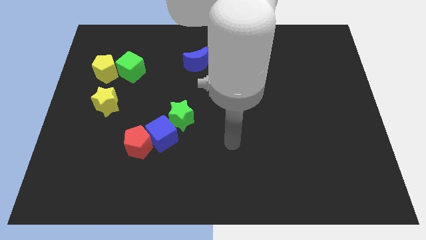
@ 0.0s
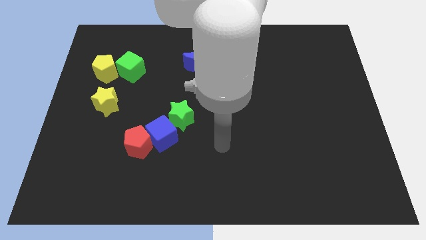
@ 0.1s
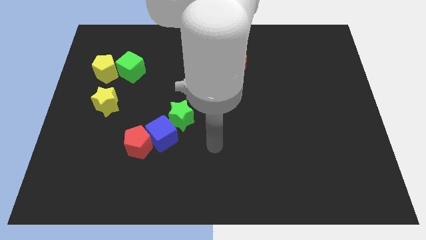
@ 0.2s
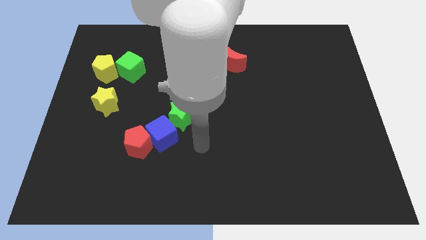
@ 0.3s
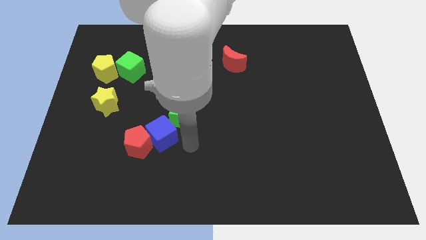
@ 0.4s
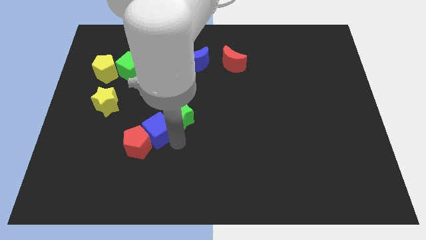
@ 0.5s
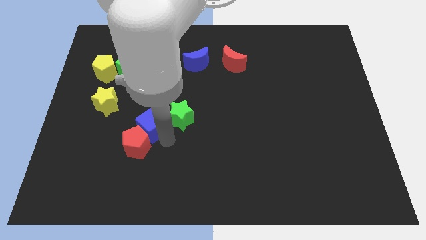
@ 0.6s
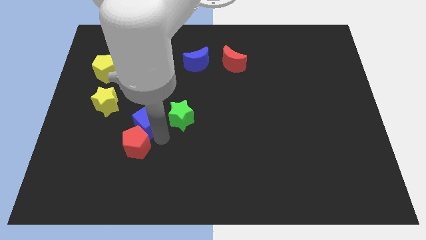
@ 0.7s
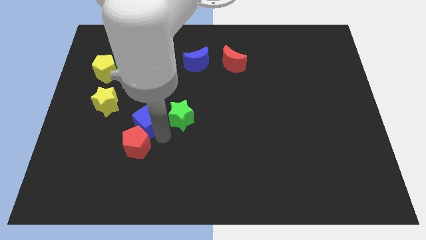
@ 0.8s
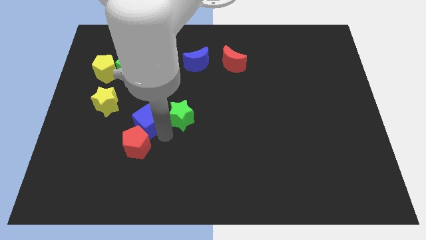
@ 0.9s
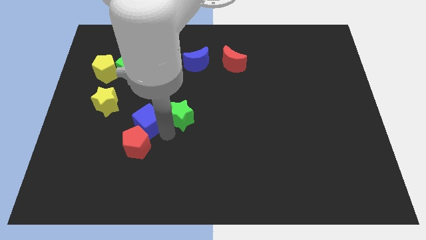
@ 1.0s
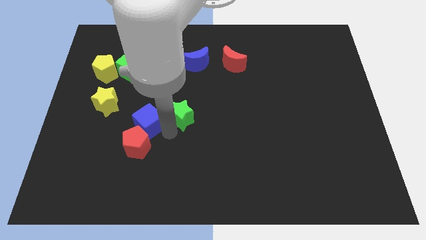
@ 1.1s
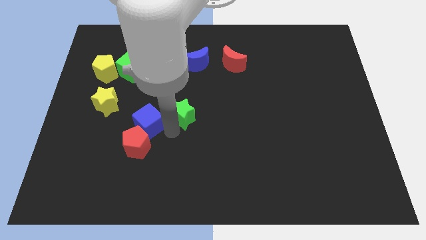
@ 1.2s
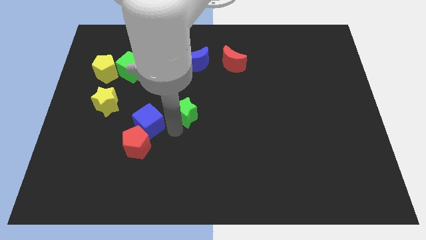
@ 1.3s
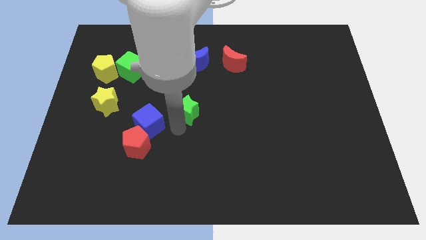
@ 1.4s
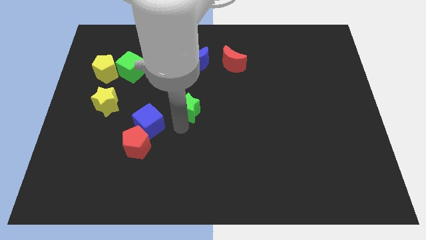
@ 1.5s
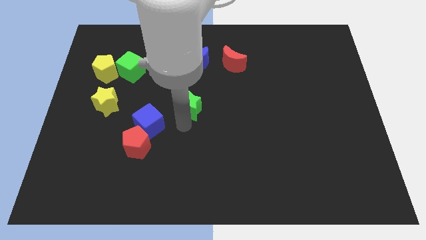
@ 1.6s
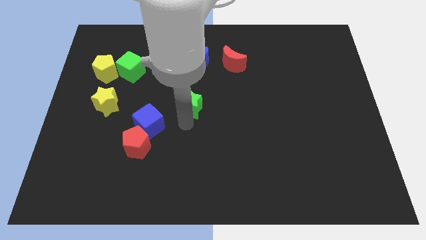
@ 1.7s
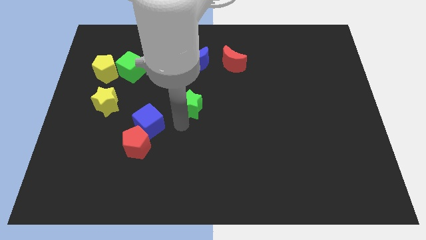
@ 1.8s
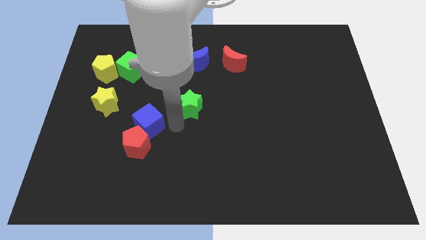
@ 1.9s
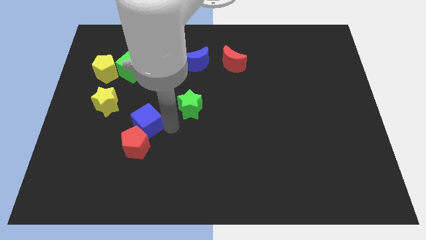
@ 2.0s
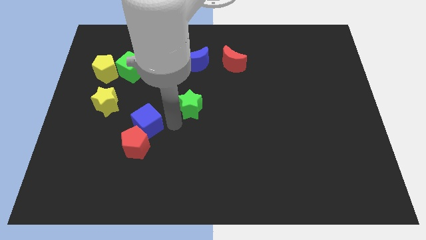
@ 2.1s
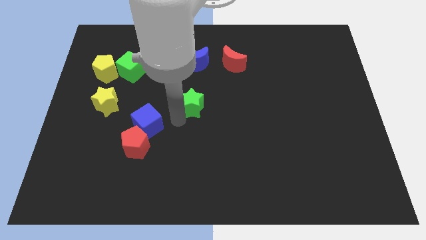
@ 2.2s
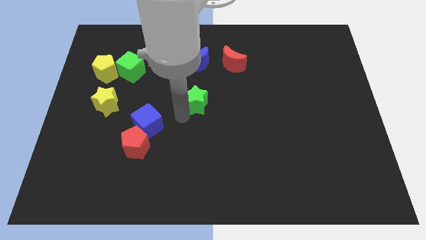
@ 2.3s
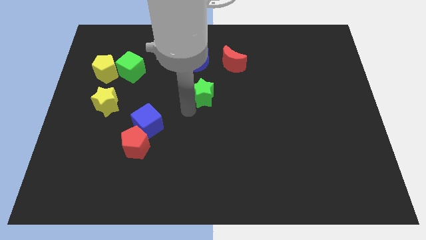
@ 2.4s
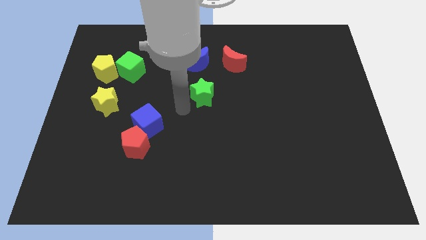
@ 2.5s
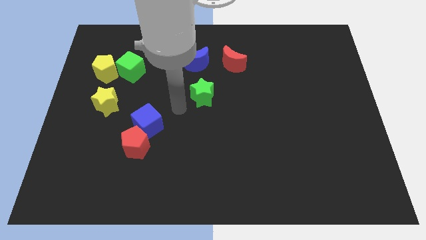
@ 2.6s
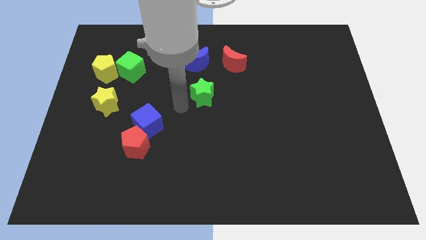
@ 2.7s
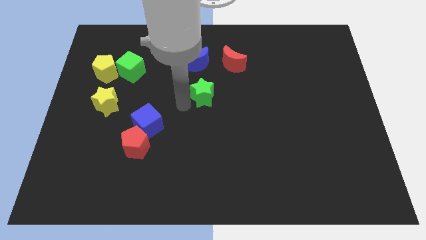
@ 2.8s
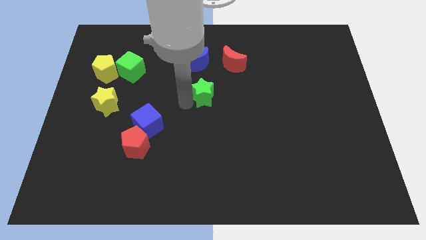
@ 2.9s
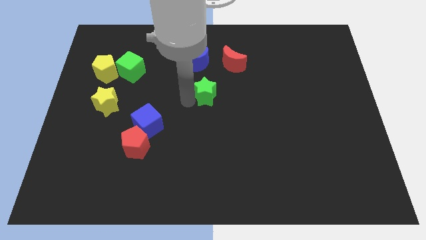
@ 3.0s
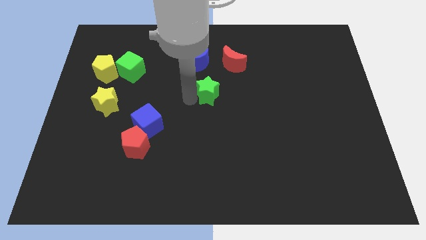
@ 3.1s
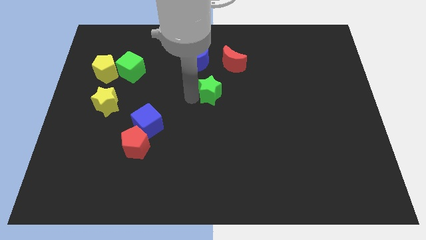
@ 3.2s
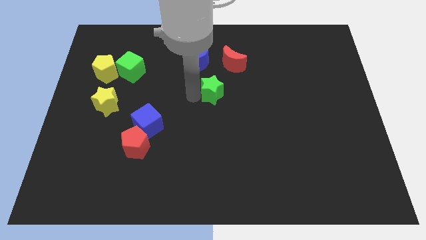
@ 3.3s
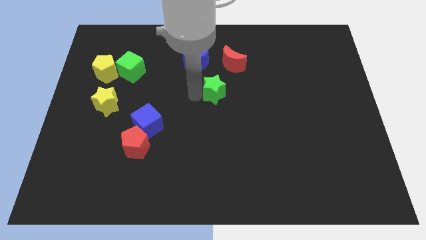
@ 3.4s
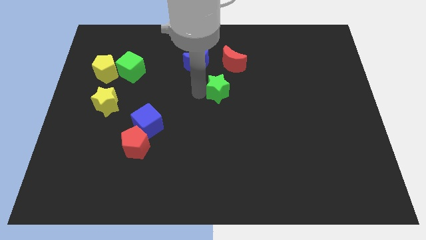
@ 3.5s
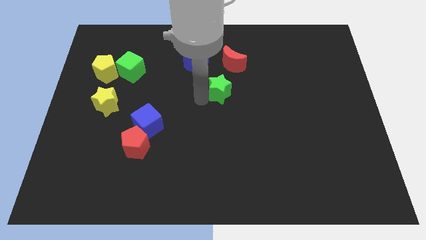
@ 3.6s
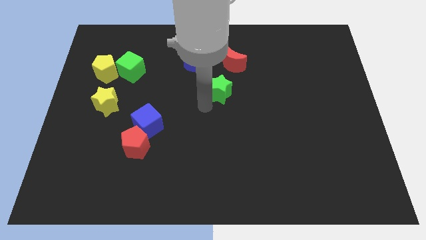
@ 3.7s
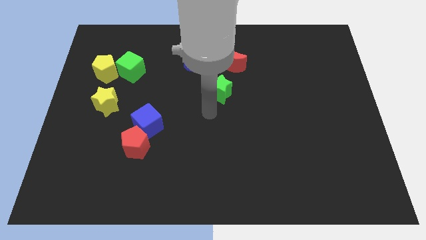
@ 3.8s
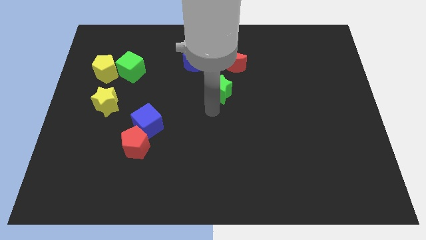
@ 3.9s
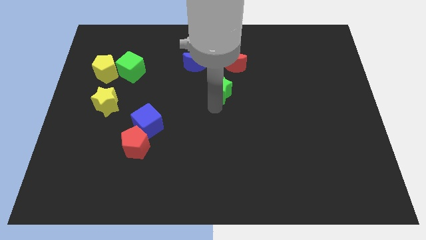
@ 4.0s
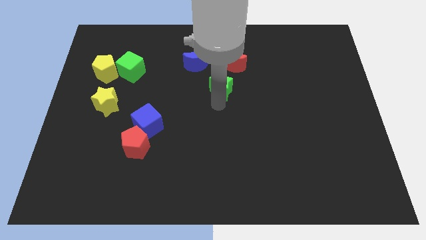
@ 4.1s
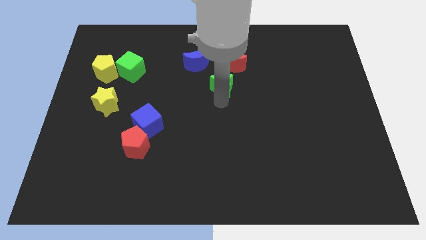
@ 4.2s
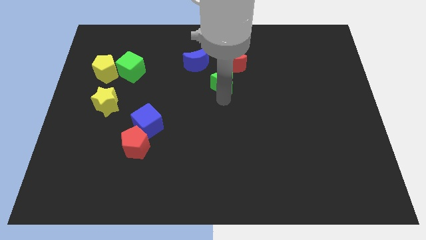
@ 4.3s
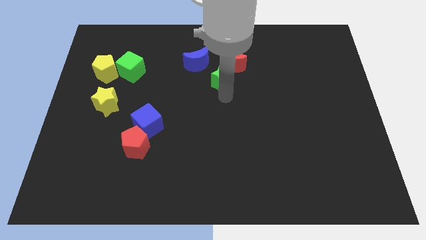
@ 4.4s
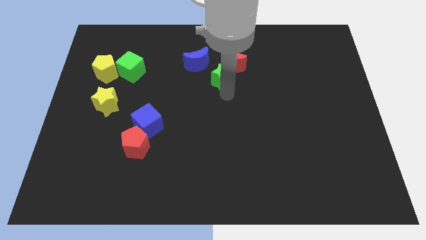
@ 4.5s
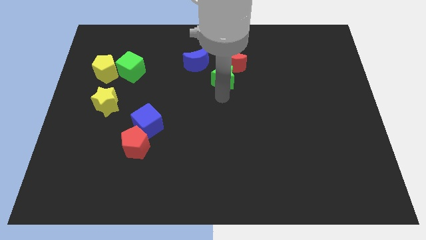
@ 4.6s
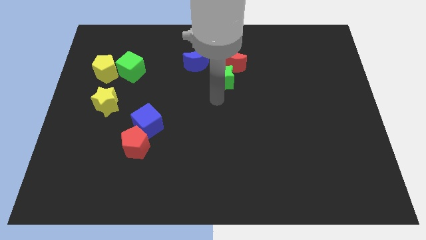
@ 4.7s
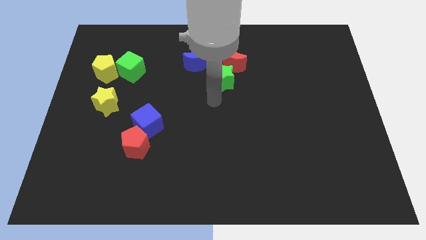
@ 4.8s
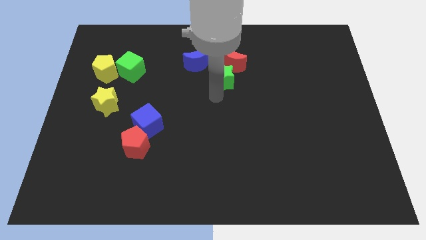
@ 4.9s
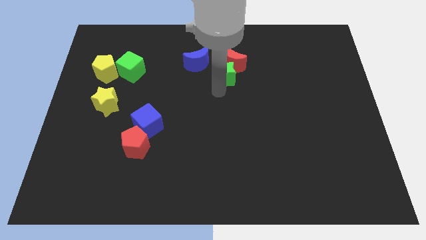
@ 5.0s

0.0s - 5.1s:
push the green star close to the red moon

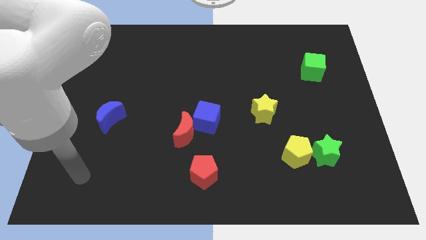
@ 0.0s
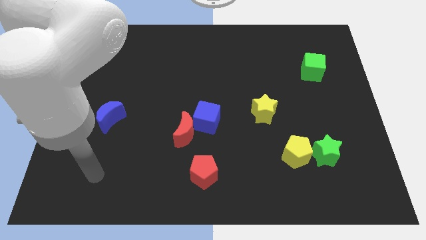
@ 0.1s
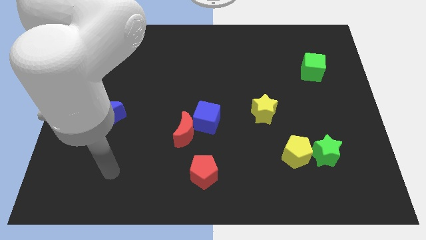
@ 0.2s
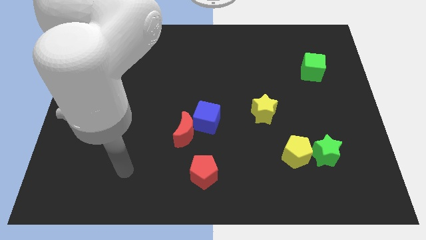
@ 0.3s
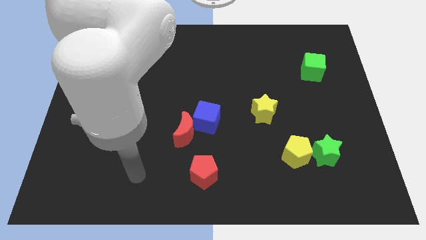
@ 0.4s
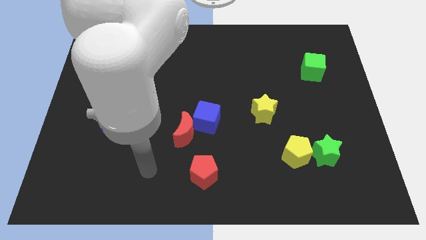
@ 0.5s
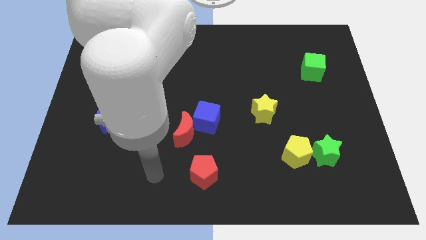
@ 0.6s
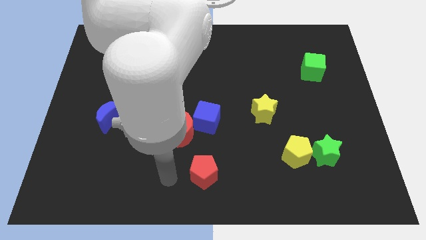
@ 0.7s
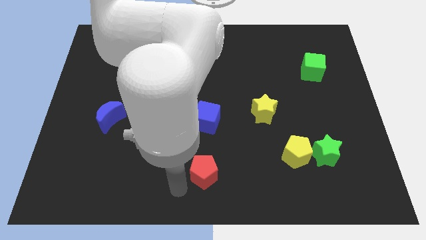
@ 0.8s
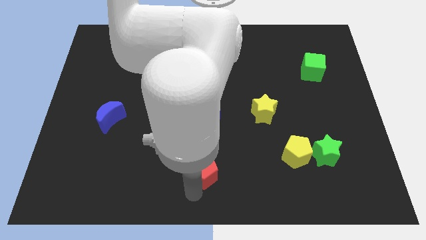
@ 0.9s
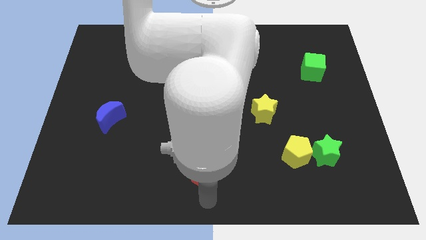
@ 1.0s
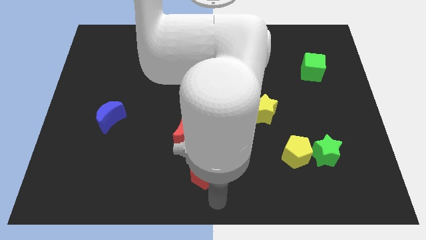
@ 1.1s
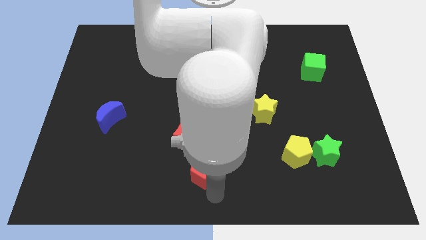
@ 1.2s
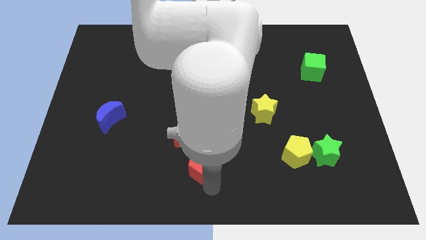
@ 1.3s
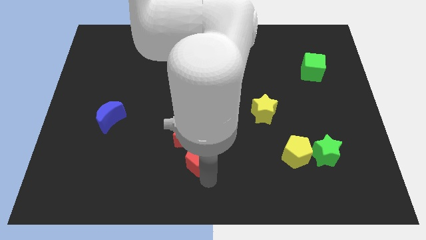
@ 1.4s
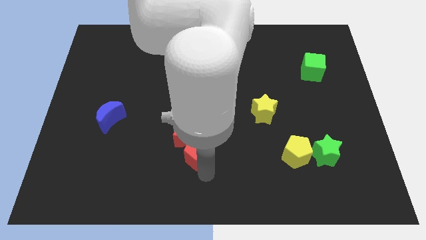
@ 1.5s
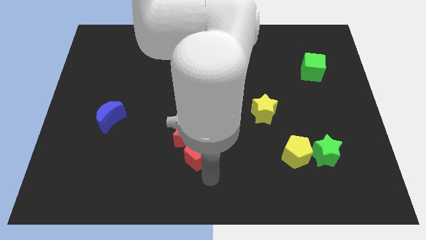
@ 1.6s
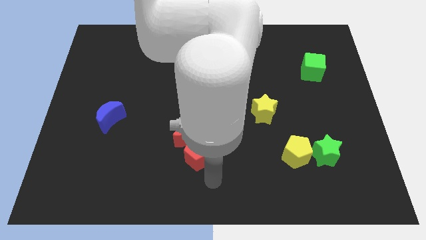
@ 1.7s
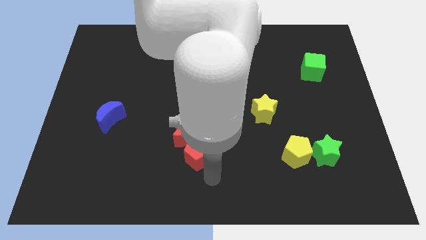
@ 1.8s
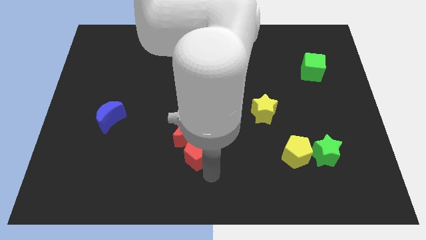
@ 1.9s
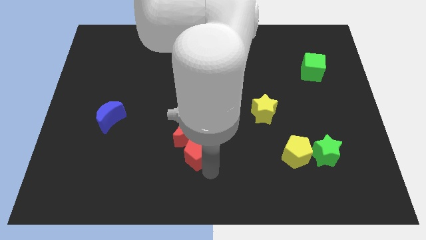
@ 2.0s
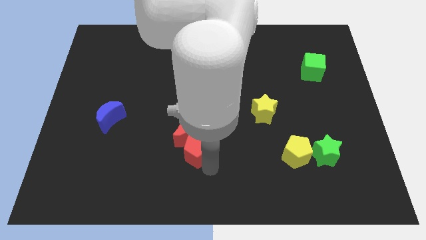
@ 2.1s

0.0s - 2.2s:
move the red pentagon to the red moon
